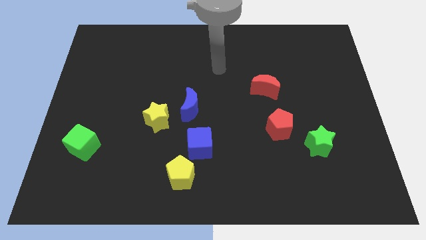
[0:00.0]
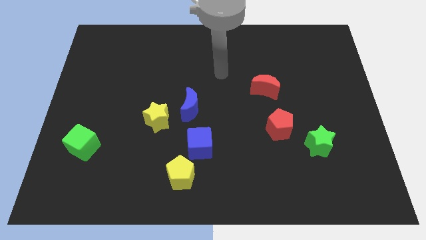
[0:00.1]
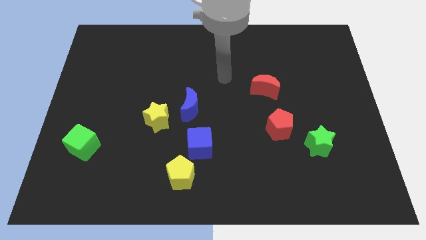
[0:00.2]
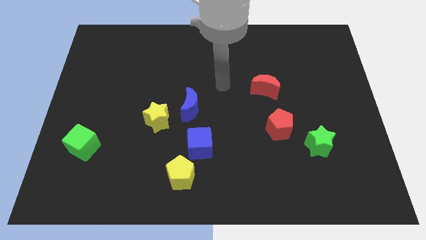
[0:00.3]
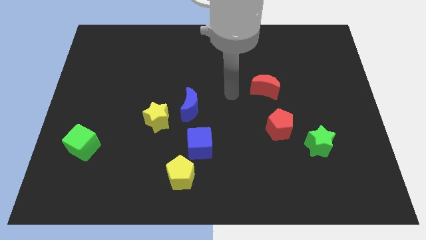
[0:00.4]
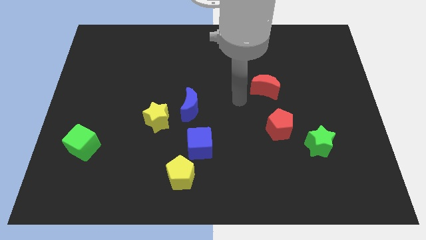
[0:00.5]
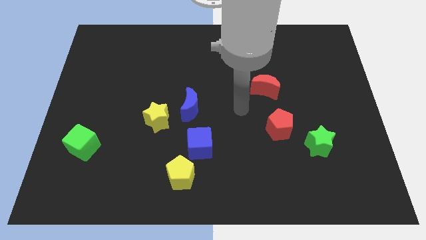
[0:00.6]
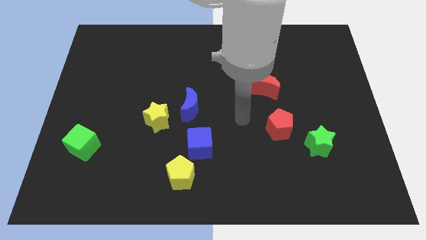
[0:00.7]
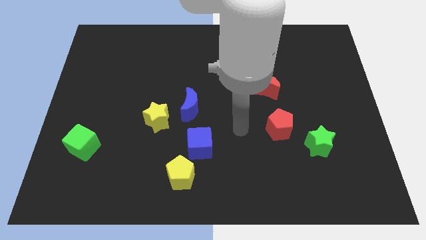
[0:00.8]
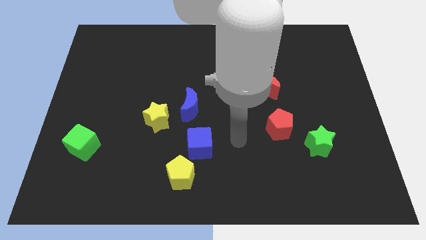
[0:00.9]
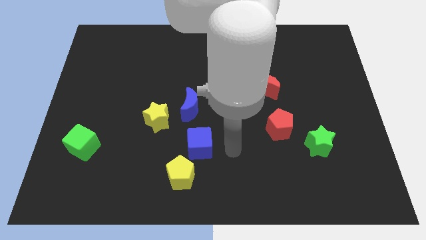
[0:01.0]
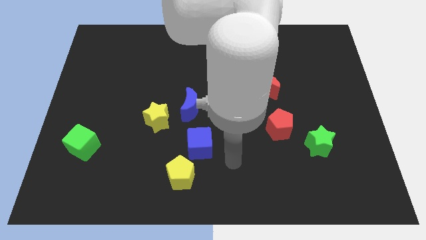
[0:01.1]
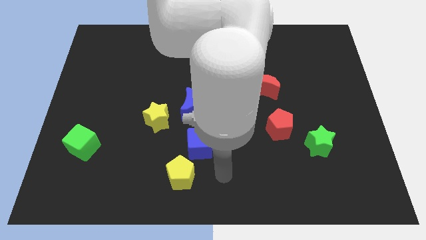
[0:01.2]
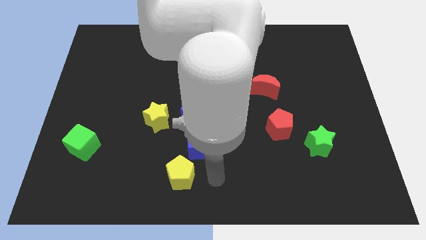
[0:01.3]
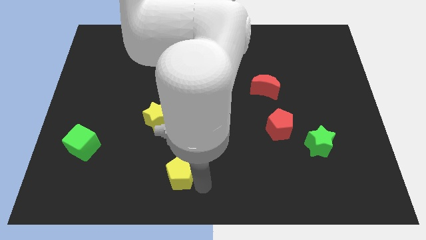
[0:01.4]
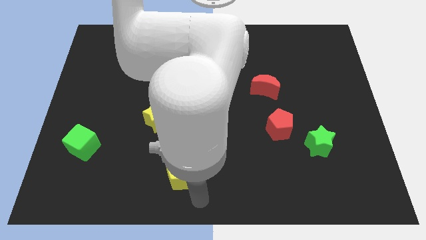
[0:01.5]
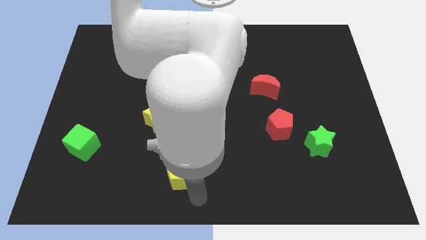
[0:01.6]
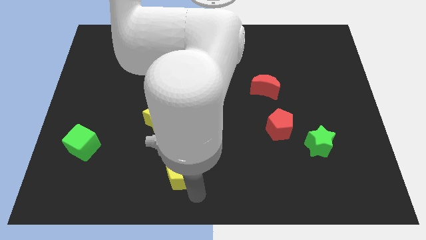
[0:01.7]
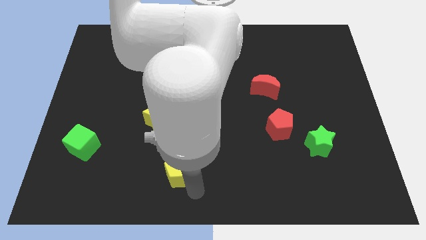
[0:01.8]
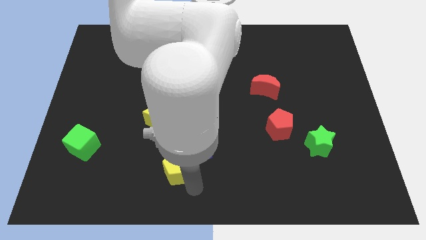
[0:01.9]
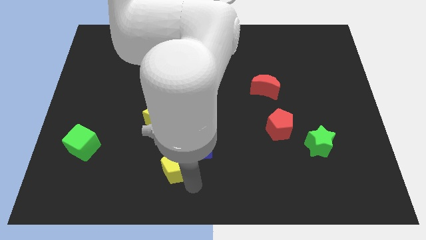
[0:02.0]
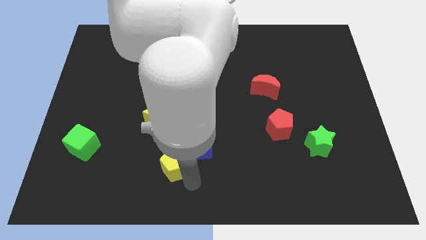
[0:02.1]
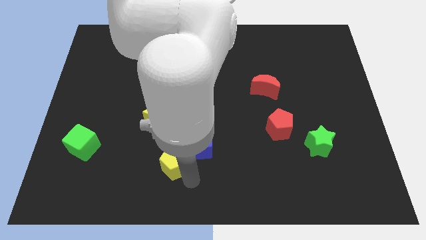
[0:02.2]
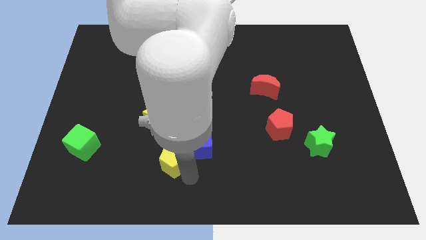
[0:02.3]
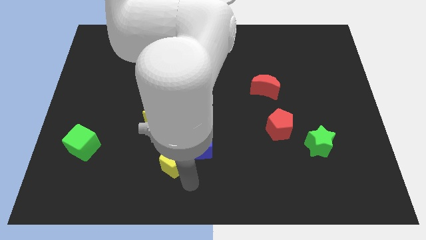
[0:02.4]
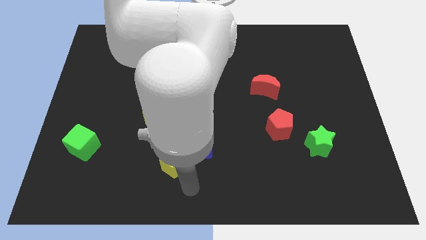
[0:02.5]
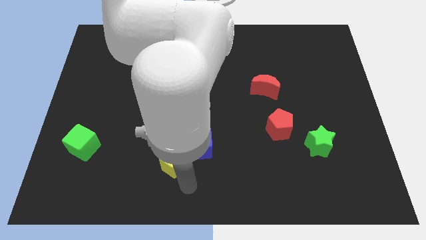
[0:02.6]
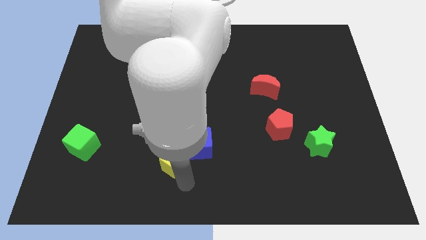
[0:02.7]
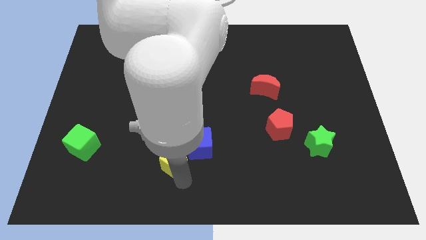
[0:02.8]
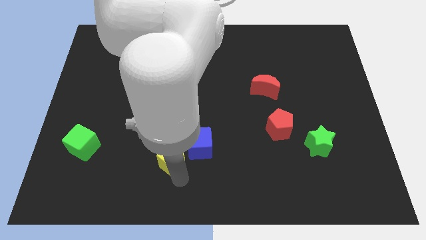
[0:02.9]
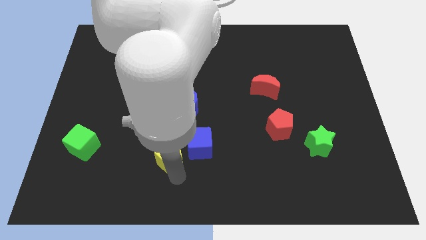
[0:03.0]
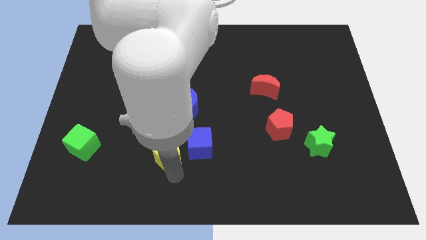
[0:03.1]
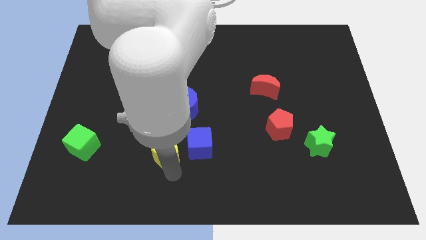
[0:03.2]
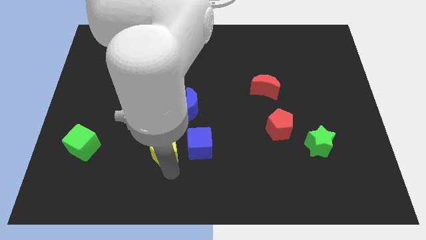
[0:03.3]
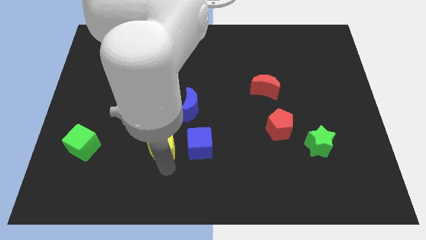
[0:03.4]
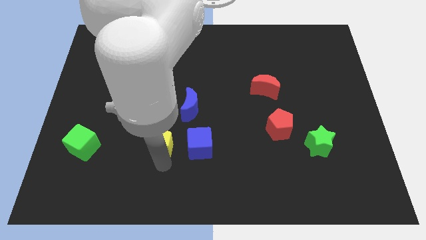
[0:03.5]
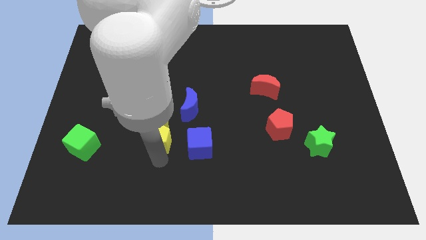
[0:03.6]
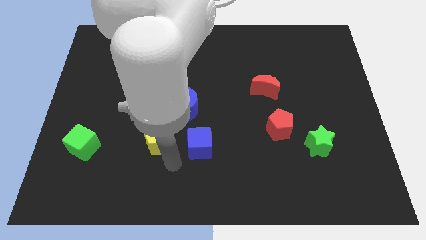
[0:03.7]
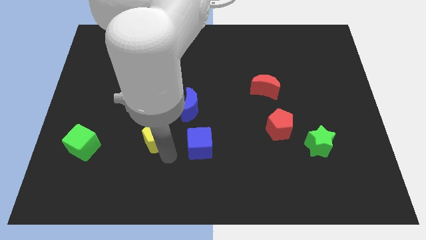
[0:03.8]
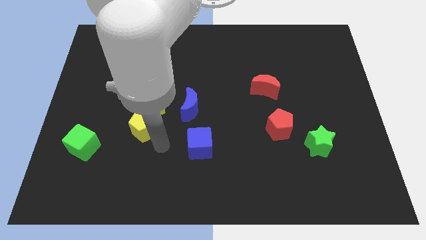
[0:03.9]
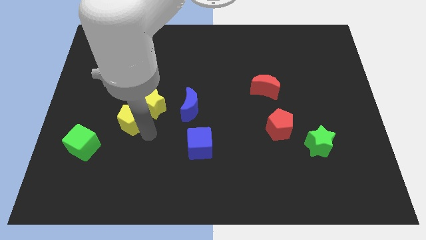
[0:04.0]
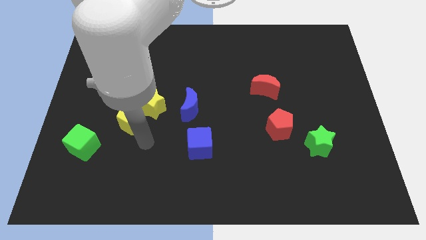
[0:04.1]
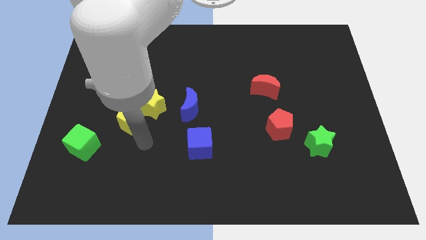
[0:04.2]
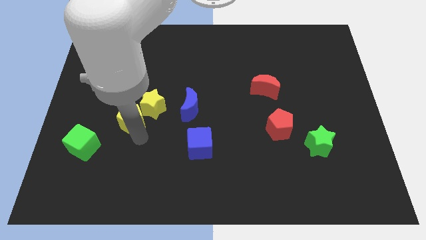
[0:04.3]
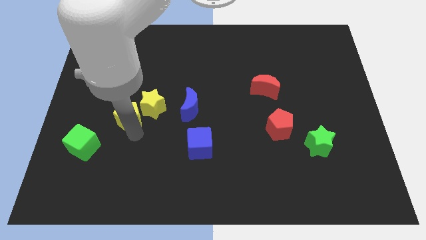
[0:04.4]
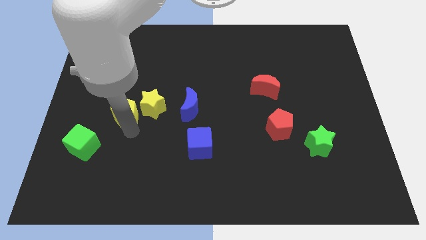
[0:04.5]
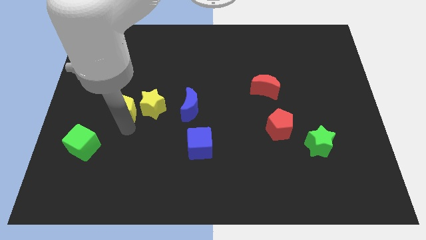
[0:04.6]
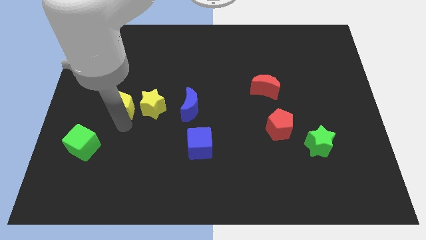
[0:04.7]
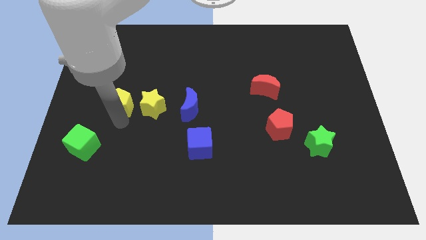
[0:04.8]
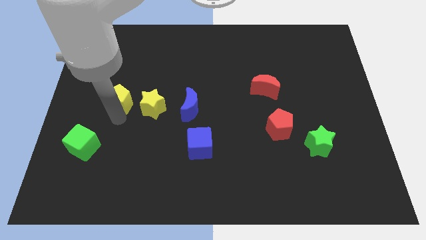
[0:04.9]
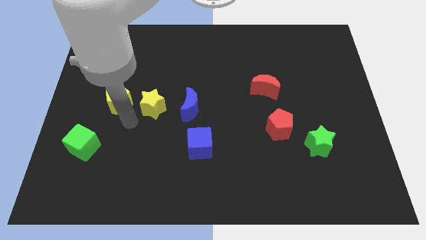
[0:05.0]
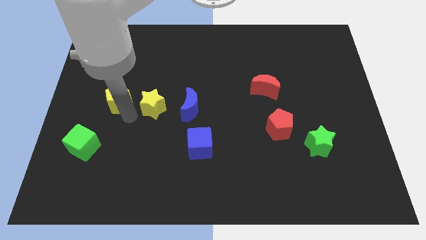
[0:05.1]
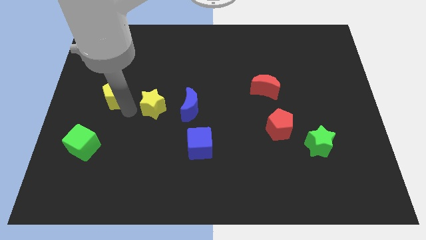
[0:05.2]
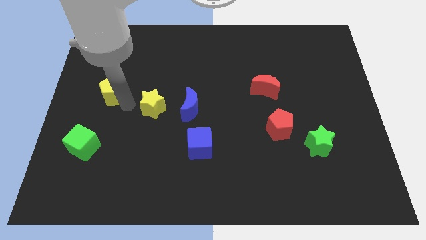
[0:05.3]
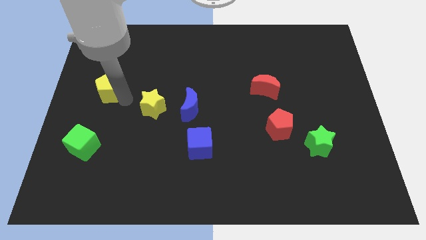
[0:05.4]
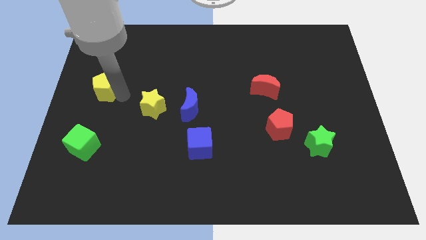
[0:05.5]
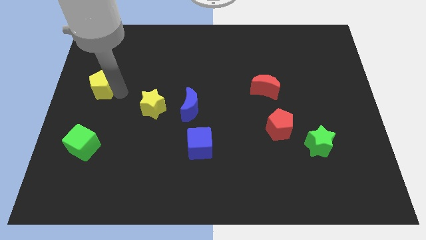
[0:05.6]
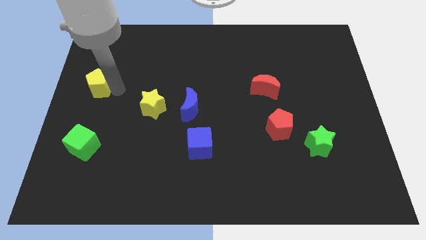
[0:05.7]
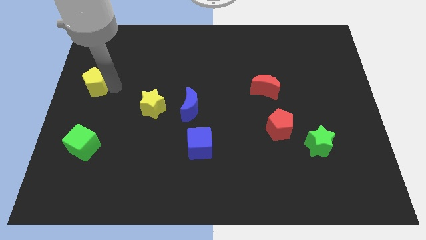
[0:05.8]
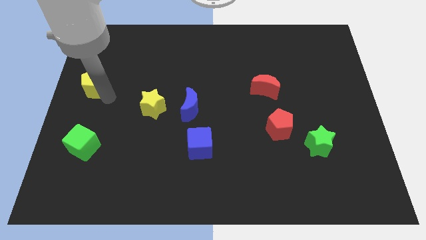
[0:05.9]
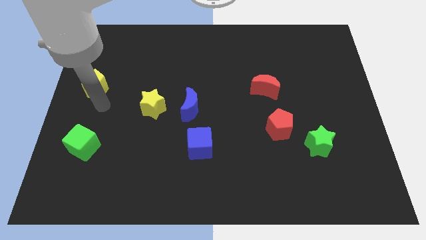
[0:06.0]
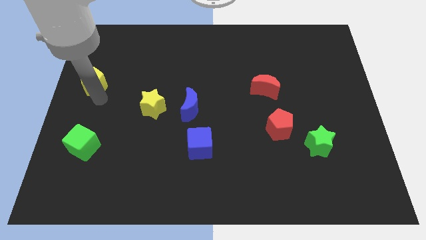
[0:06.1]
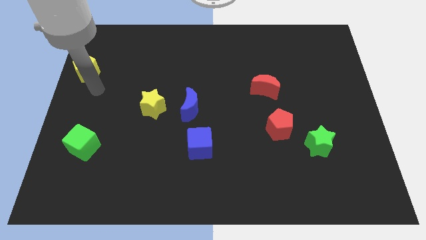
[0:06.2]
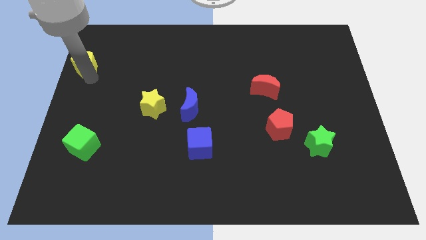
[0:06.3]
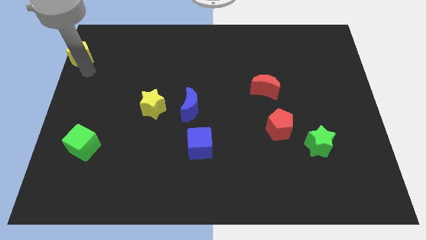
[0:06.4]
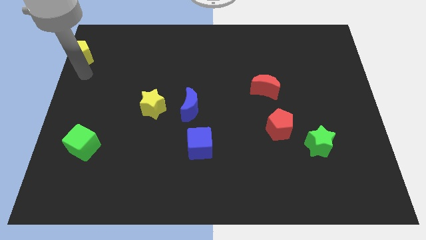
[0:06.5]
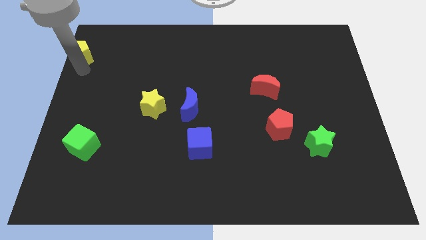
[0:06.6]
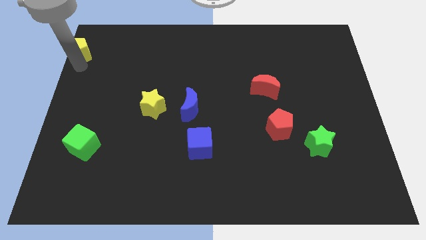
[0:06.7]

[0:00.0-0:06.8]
move the yellow pentagon to the top left

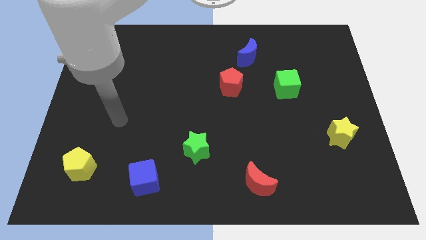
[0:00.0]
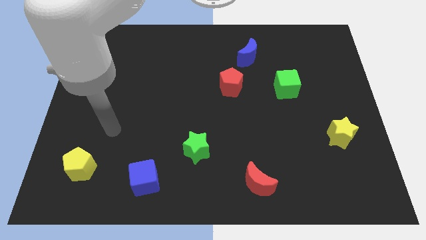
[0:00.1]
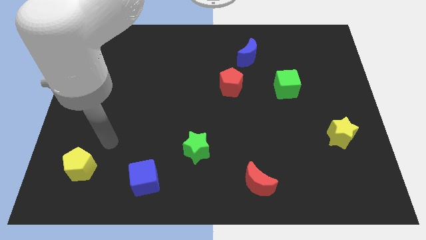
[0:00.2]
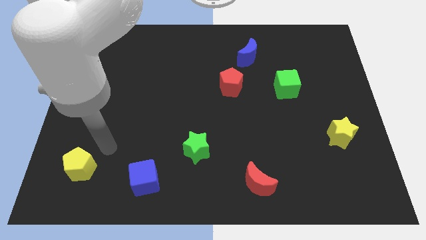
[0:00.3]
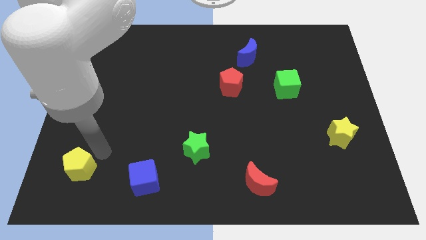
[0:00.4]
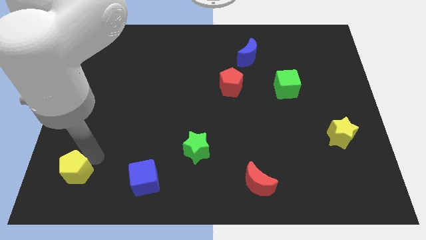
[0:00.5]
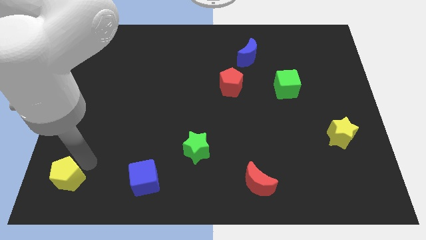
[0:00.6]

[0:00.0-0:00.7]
put the yellow pentagon to the bottom left of the board
